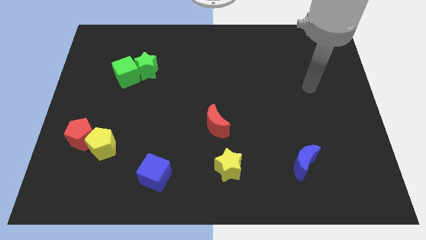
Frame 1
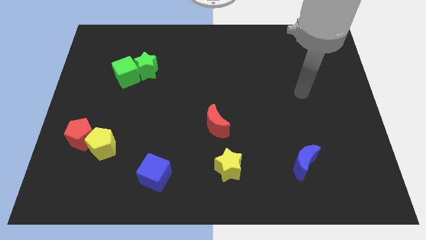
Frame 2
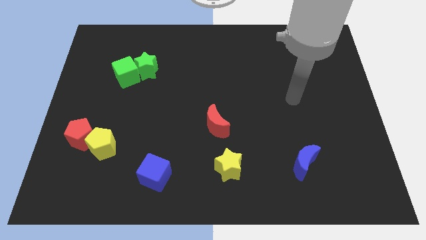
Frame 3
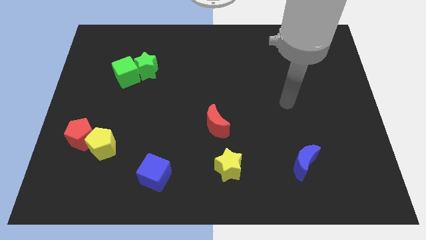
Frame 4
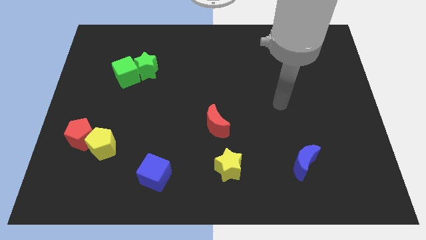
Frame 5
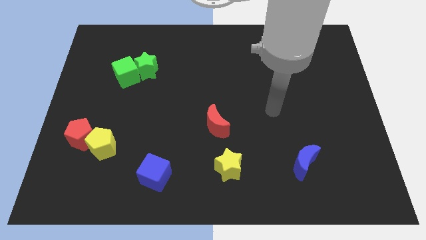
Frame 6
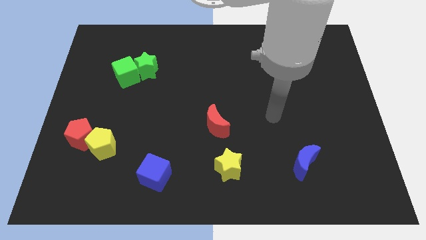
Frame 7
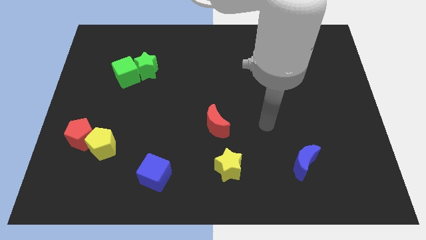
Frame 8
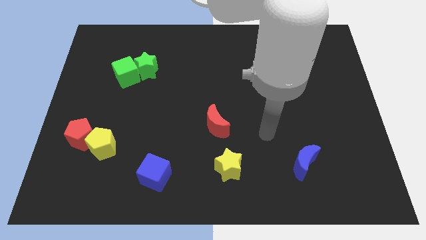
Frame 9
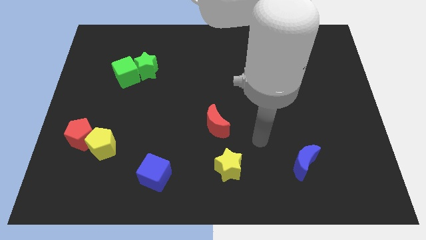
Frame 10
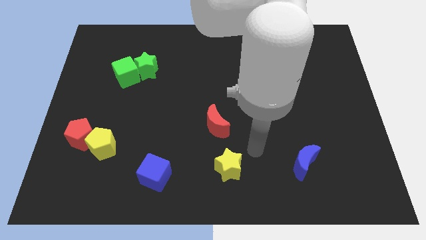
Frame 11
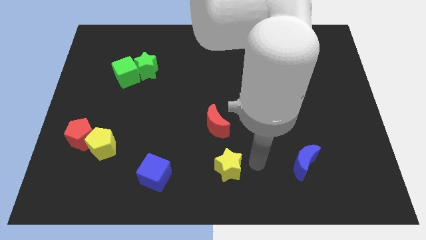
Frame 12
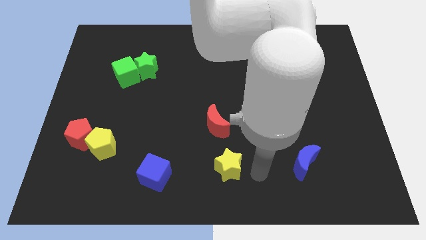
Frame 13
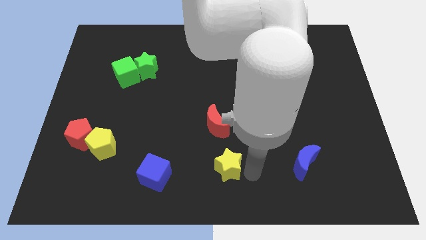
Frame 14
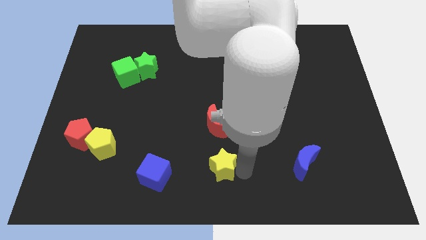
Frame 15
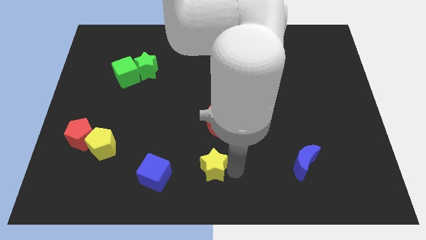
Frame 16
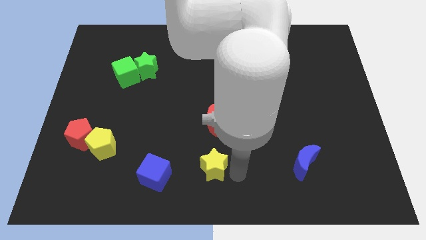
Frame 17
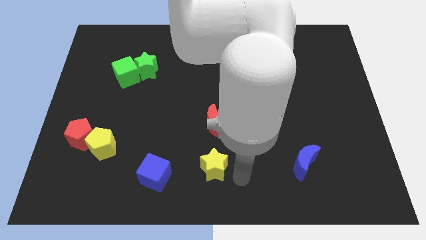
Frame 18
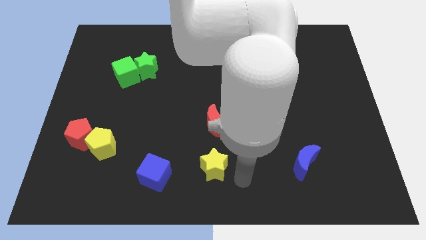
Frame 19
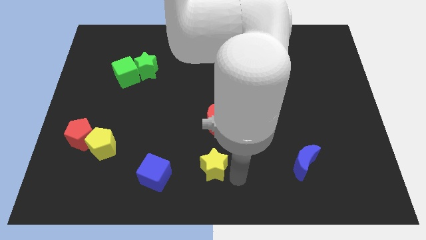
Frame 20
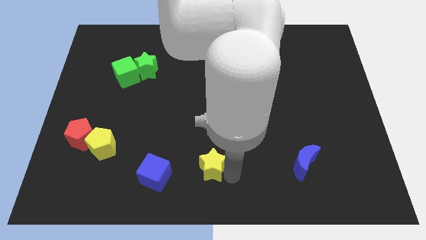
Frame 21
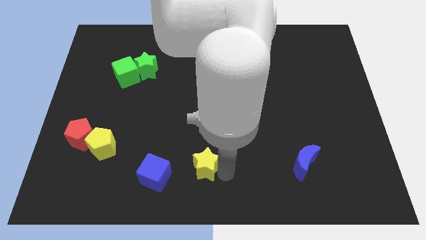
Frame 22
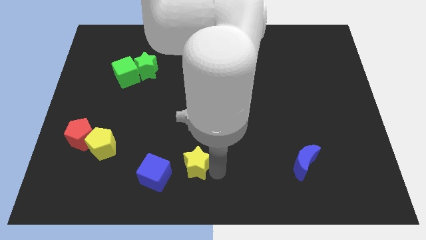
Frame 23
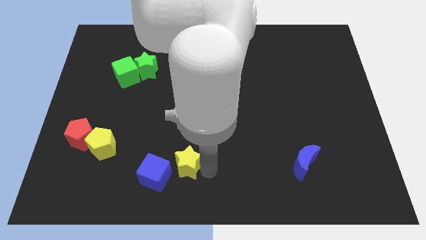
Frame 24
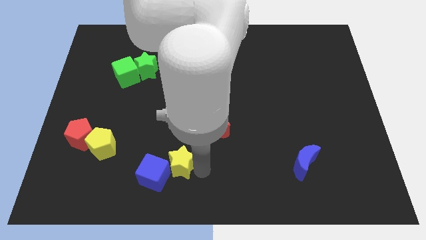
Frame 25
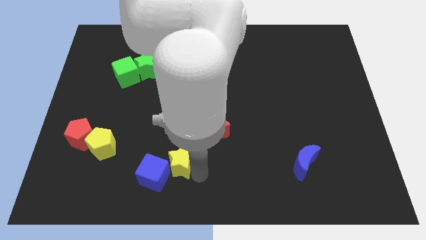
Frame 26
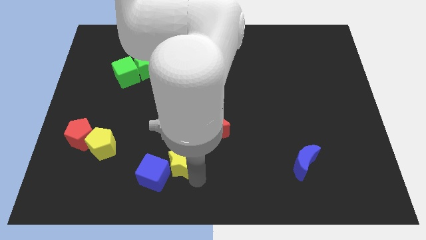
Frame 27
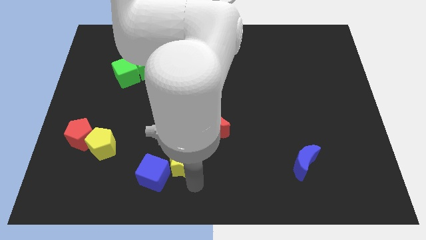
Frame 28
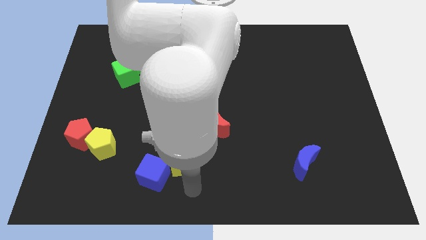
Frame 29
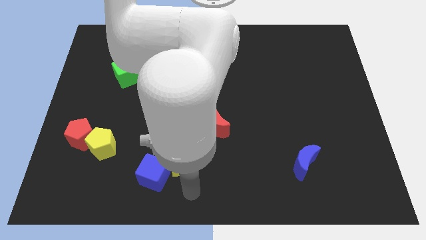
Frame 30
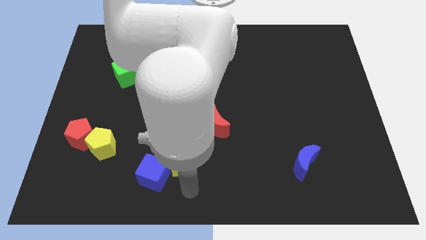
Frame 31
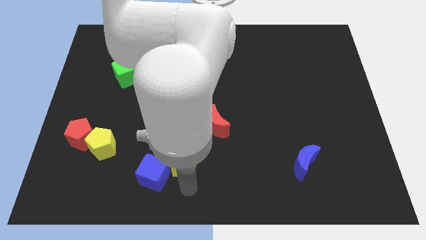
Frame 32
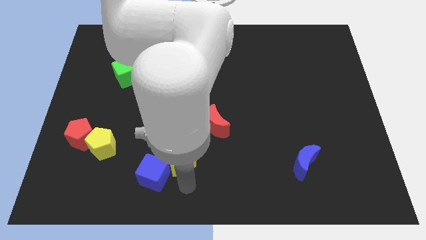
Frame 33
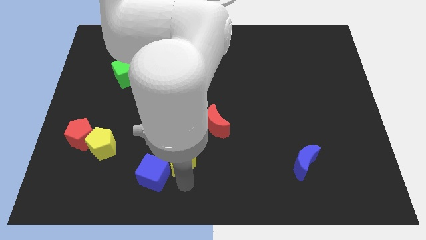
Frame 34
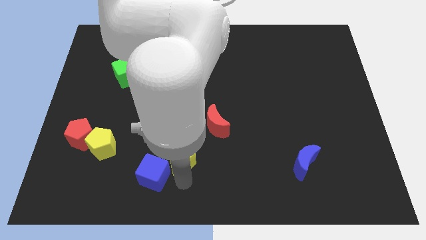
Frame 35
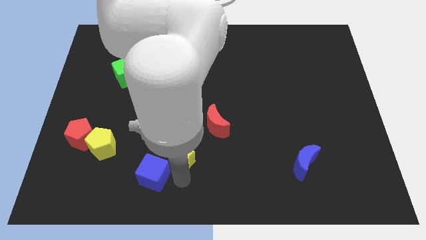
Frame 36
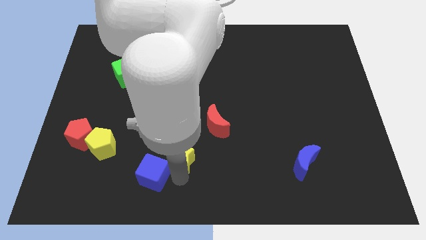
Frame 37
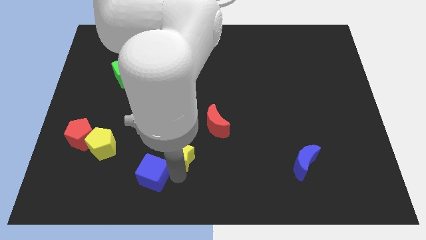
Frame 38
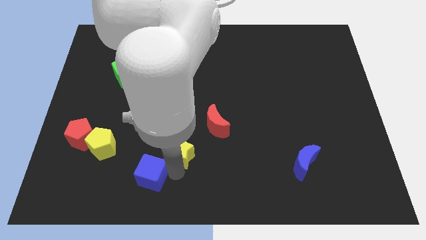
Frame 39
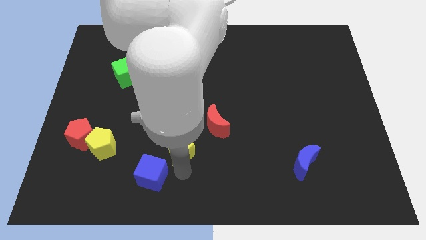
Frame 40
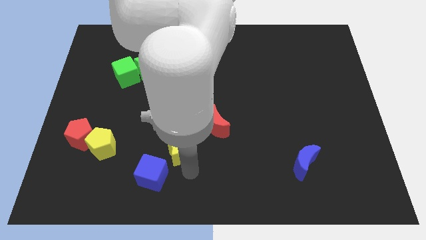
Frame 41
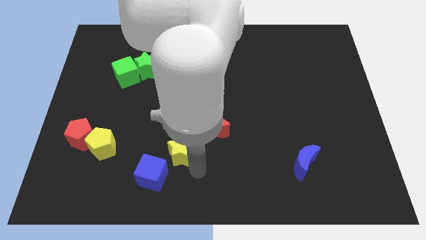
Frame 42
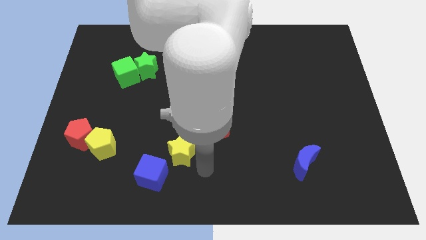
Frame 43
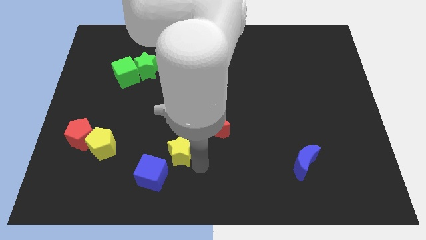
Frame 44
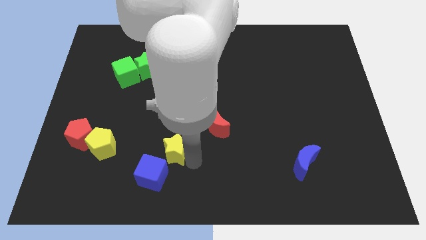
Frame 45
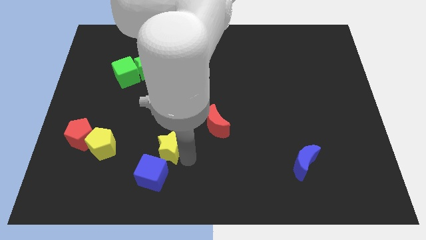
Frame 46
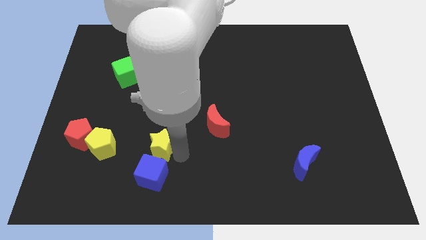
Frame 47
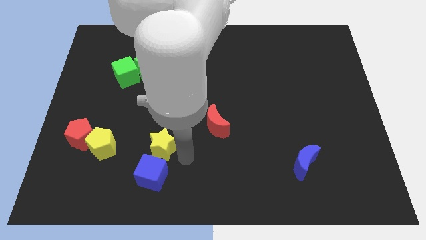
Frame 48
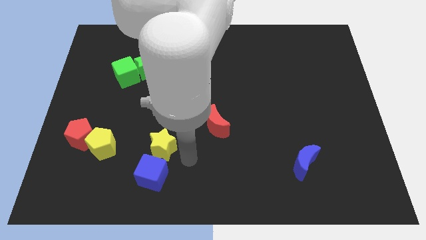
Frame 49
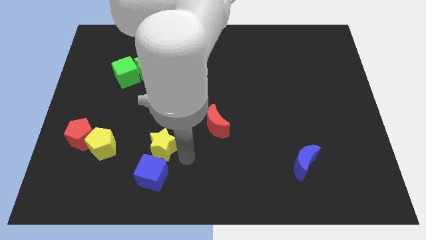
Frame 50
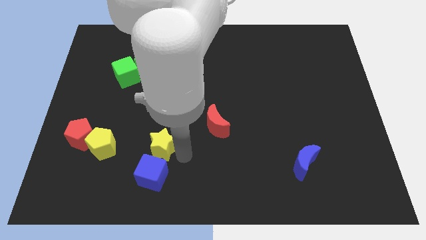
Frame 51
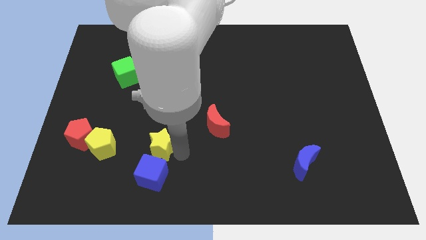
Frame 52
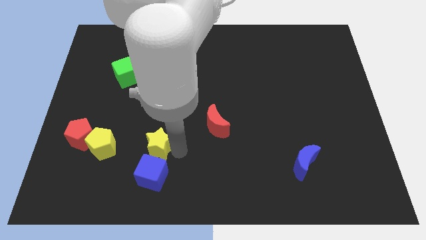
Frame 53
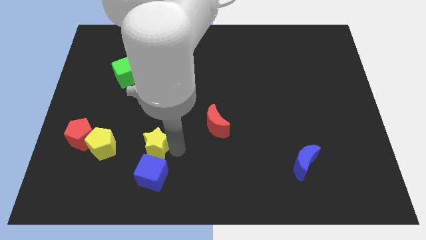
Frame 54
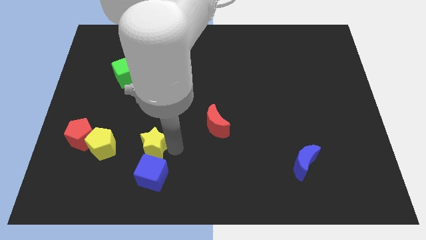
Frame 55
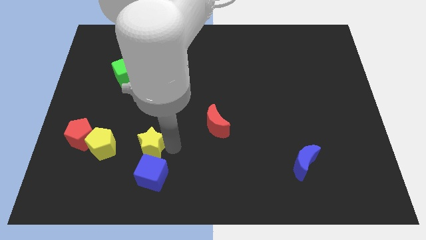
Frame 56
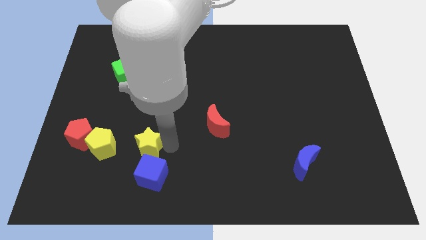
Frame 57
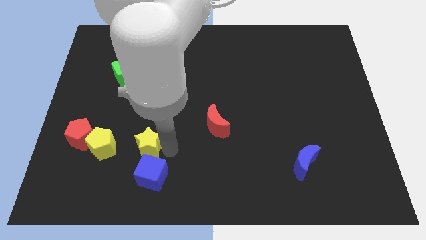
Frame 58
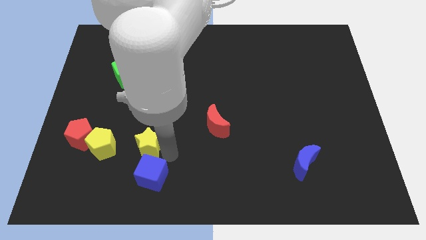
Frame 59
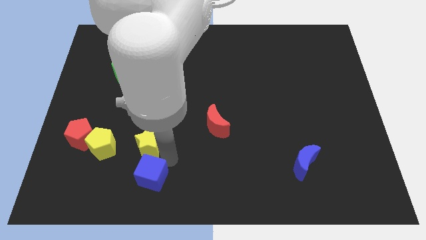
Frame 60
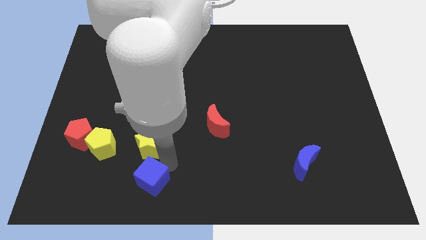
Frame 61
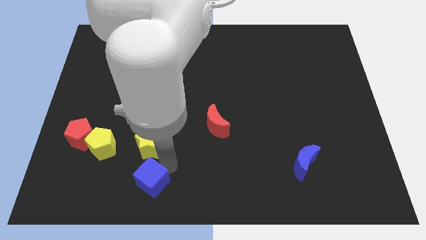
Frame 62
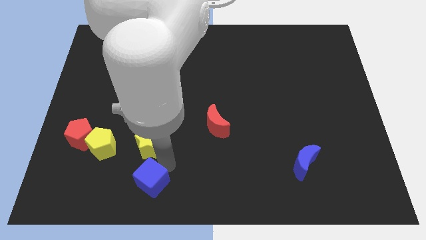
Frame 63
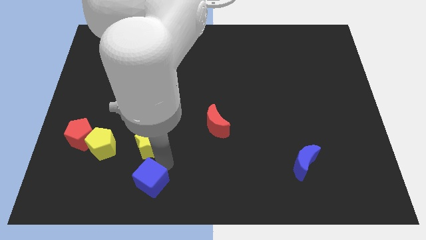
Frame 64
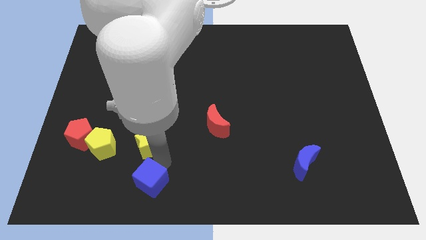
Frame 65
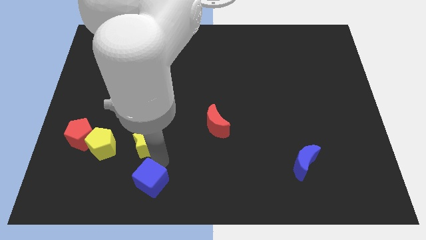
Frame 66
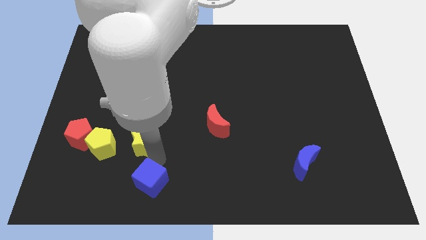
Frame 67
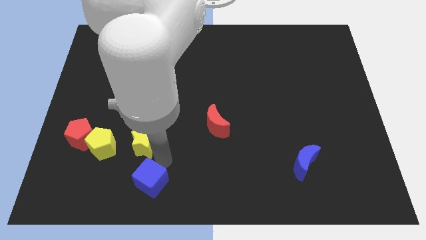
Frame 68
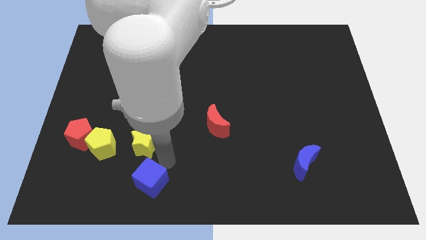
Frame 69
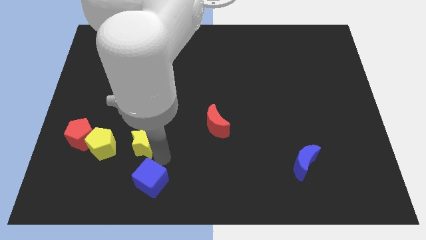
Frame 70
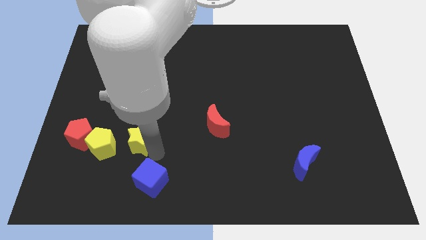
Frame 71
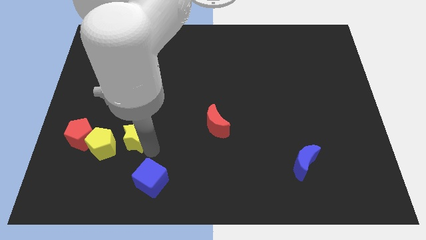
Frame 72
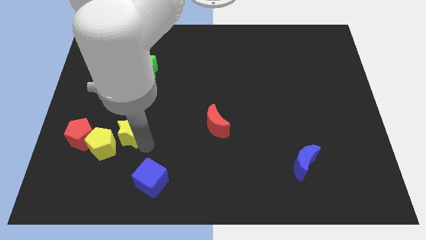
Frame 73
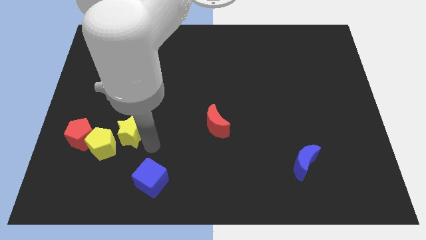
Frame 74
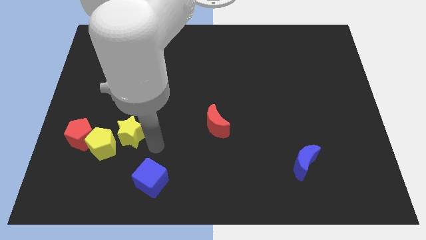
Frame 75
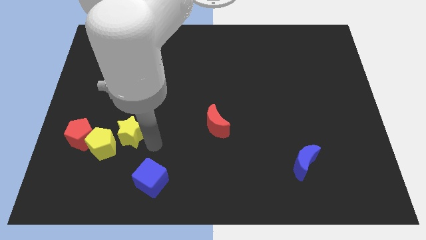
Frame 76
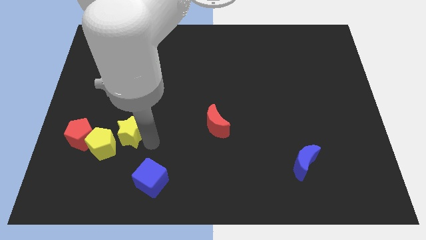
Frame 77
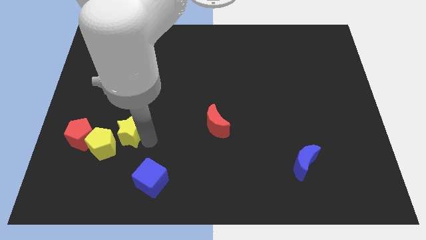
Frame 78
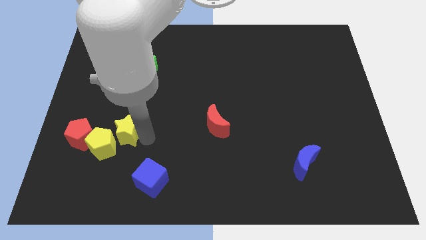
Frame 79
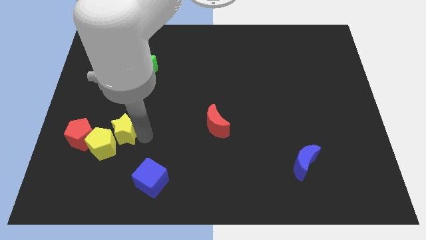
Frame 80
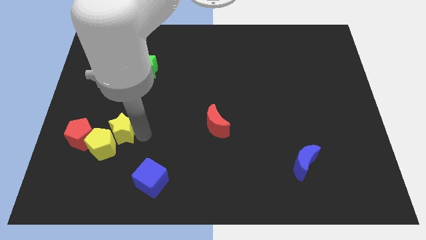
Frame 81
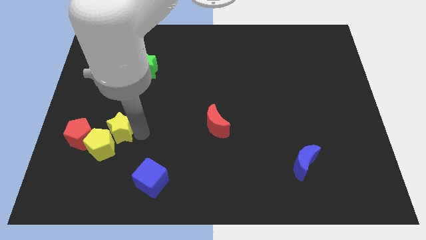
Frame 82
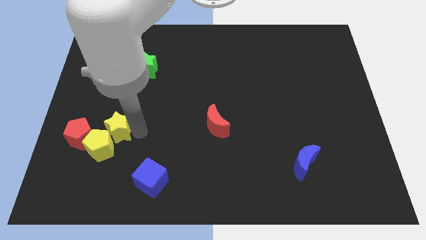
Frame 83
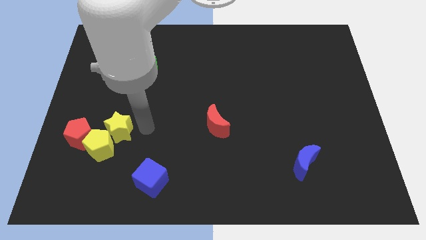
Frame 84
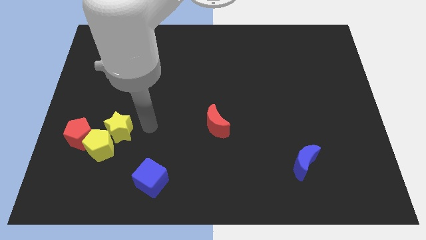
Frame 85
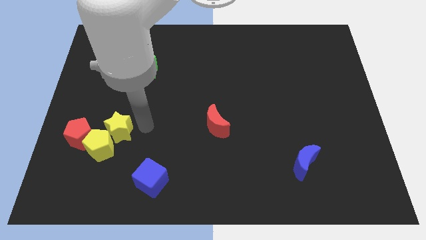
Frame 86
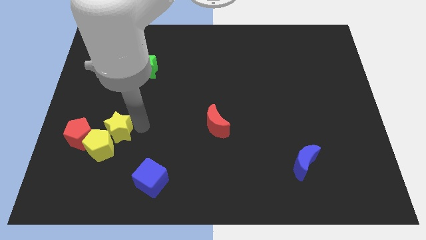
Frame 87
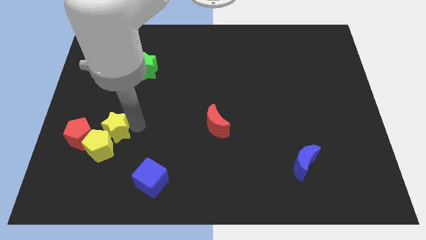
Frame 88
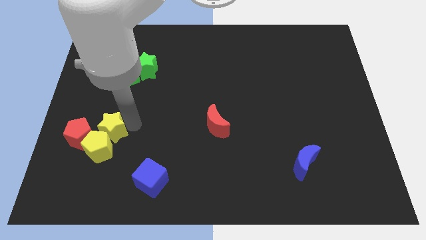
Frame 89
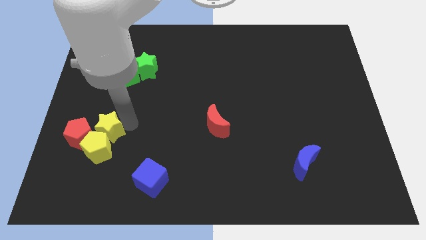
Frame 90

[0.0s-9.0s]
put the yellow star close to the red pentagon
